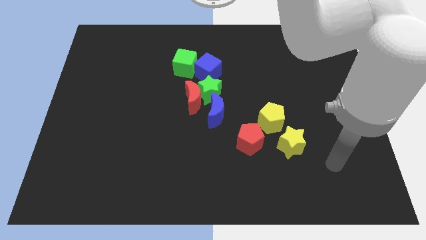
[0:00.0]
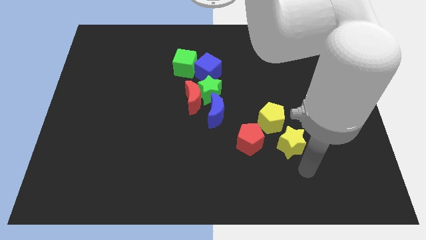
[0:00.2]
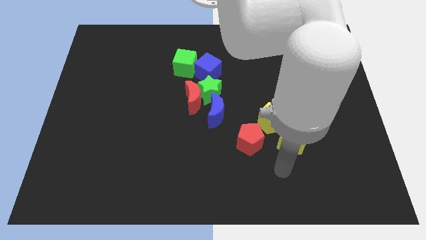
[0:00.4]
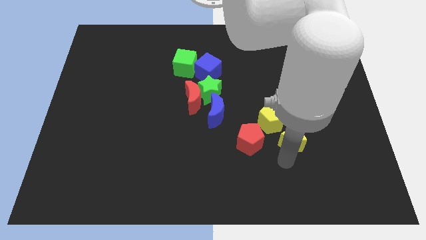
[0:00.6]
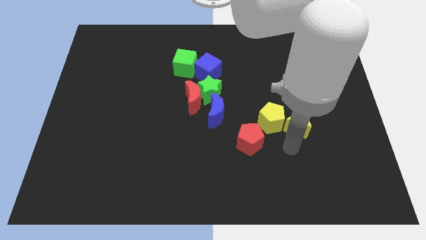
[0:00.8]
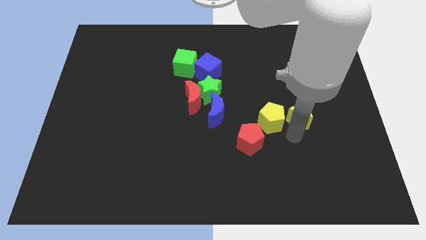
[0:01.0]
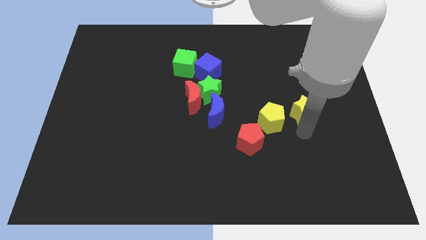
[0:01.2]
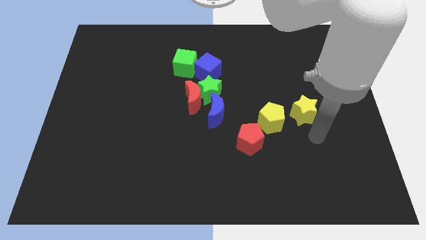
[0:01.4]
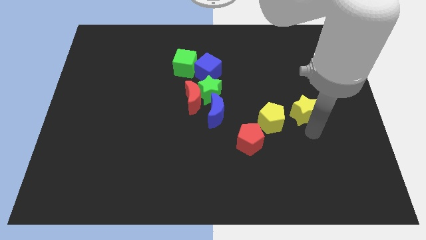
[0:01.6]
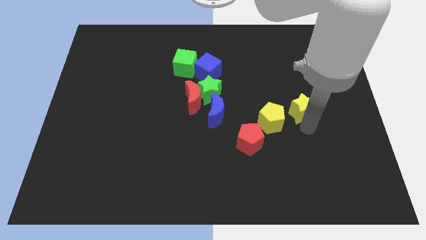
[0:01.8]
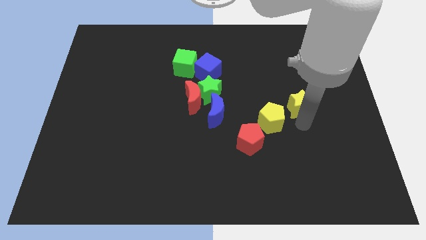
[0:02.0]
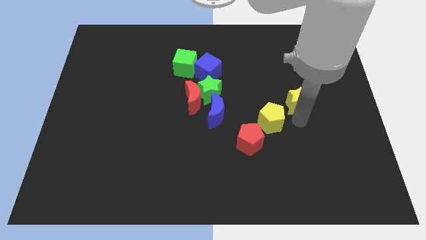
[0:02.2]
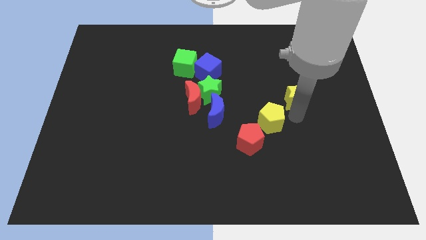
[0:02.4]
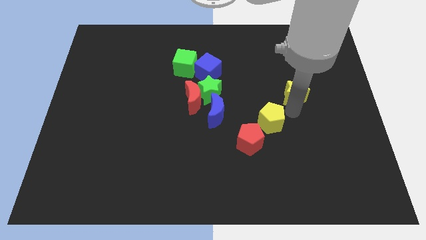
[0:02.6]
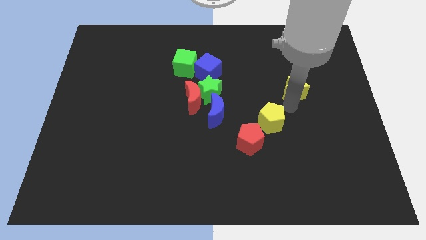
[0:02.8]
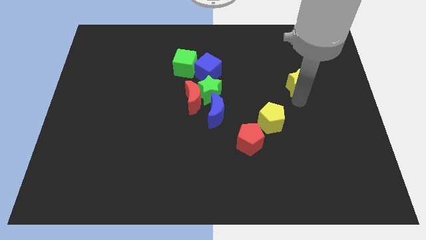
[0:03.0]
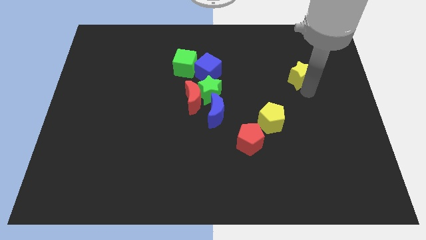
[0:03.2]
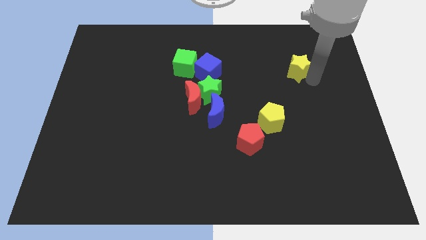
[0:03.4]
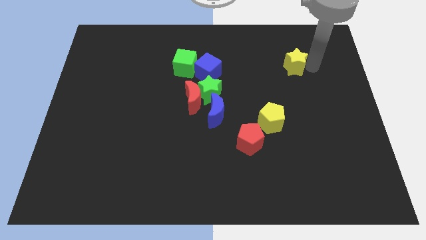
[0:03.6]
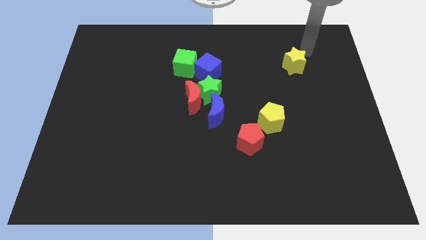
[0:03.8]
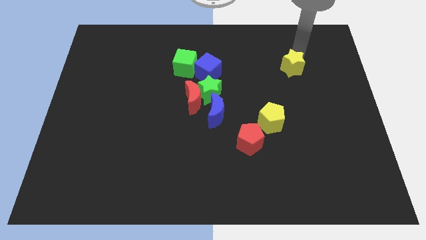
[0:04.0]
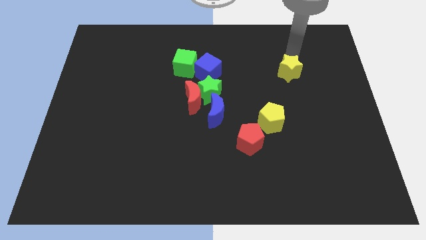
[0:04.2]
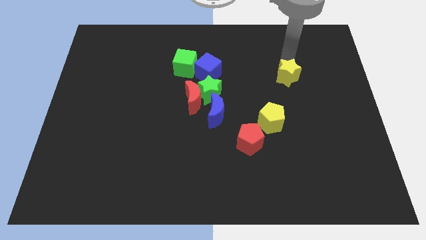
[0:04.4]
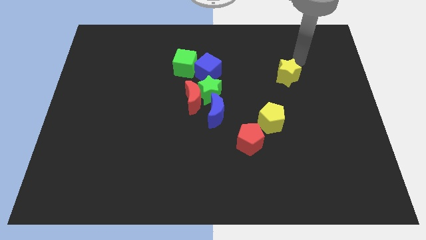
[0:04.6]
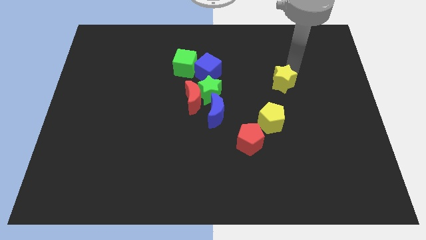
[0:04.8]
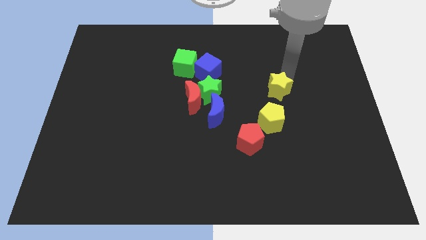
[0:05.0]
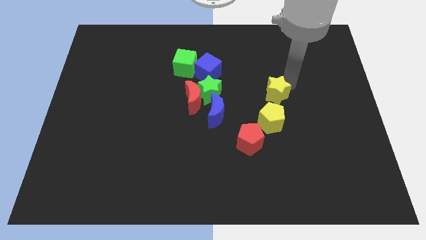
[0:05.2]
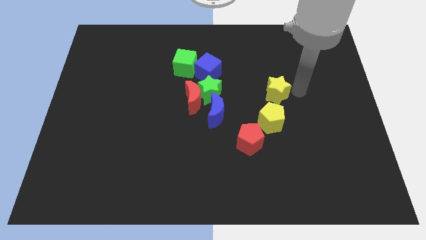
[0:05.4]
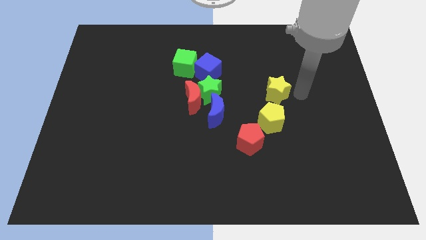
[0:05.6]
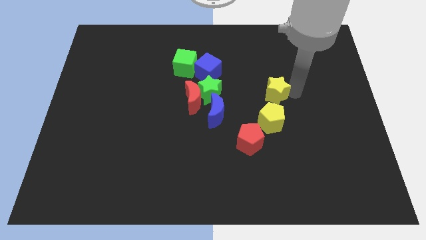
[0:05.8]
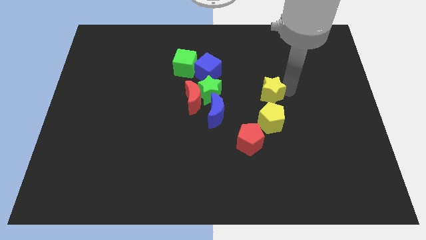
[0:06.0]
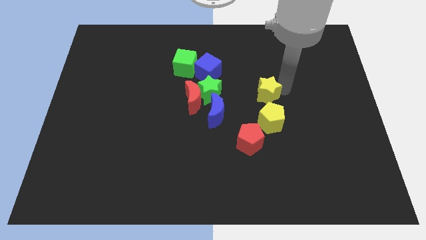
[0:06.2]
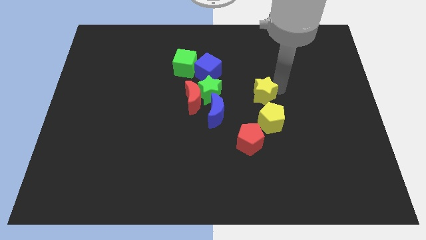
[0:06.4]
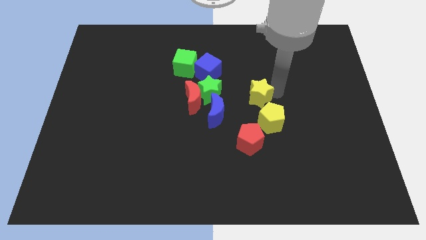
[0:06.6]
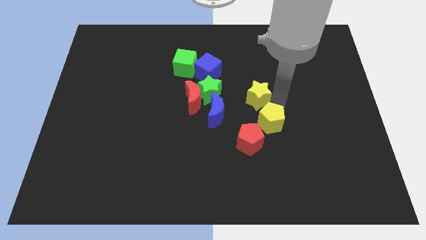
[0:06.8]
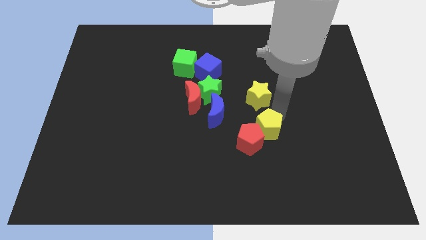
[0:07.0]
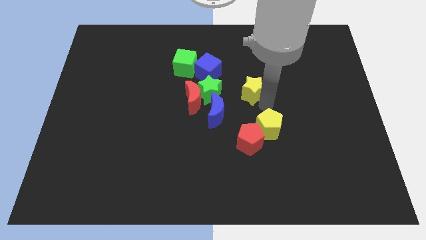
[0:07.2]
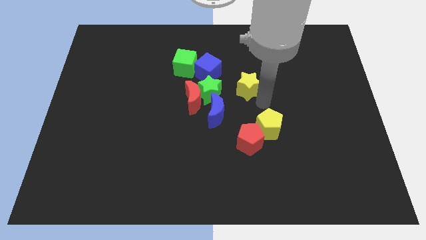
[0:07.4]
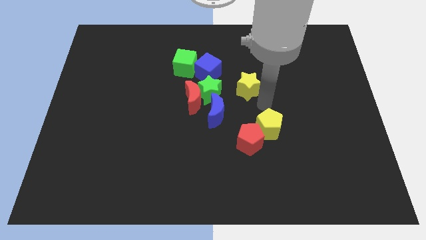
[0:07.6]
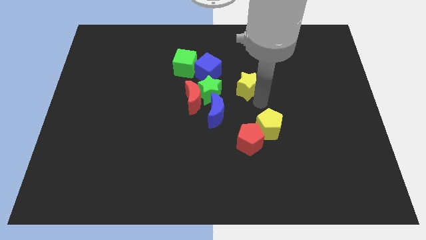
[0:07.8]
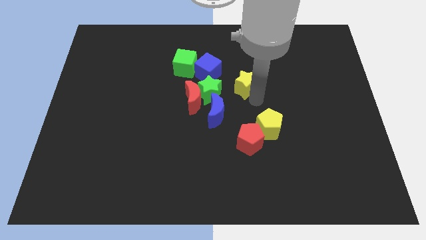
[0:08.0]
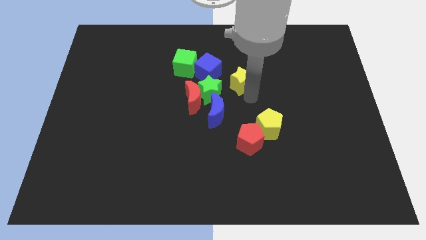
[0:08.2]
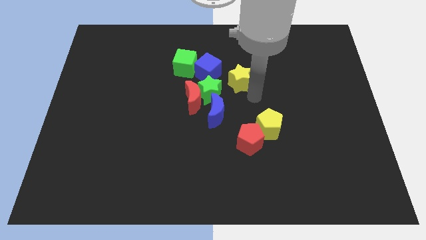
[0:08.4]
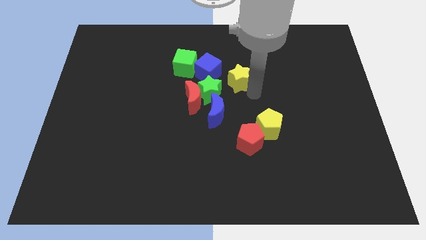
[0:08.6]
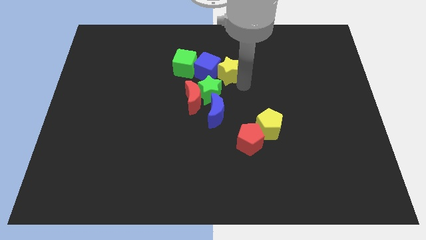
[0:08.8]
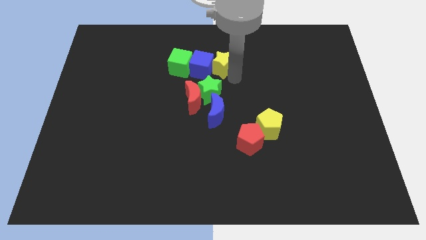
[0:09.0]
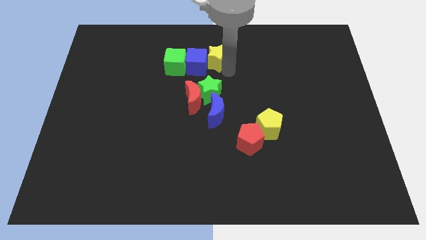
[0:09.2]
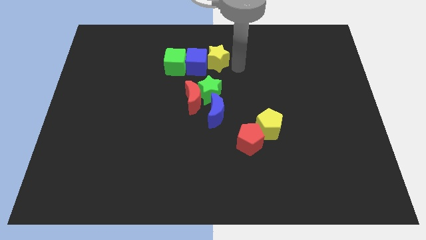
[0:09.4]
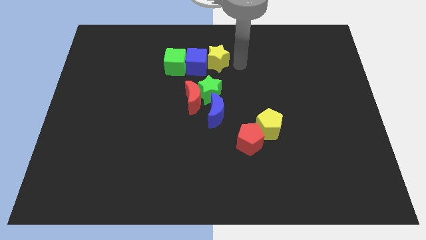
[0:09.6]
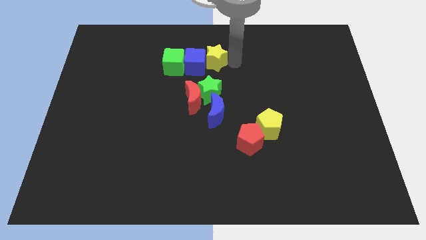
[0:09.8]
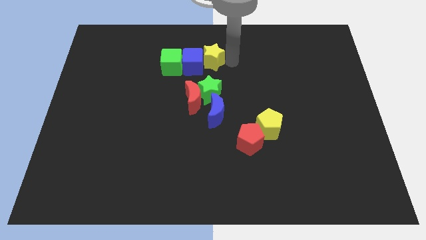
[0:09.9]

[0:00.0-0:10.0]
slide the yellow star above the red moon

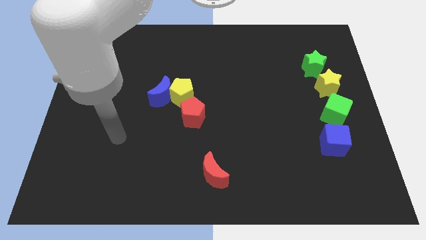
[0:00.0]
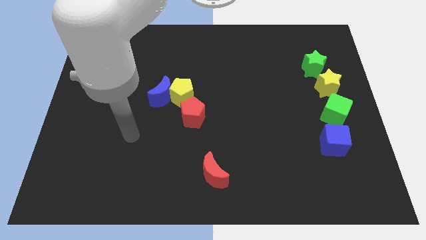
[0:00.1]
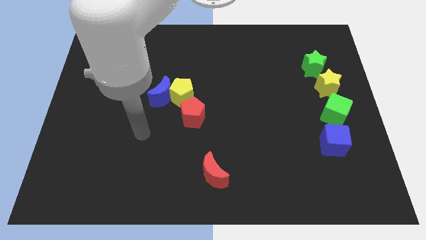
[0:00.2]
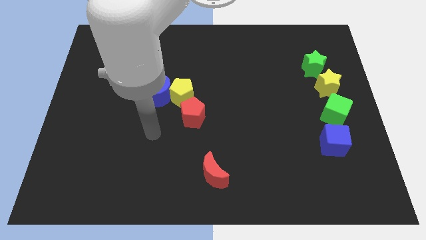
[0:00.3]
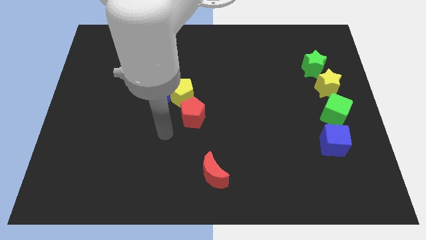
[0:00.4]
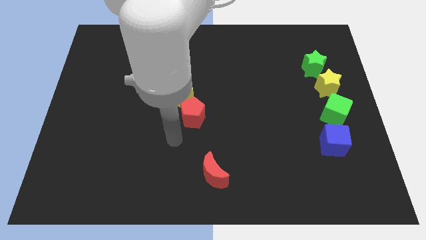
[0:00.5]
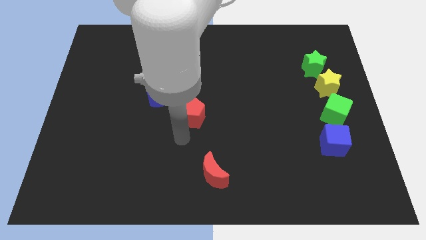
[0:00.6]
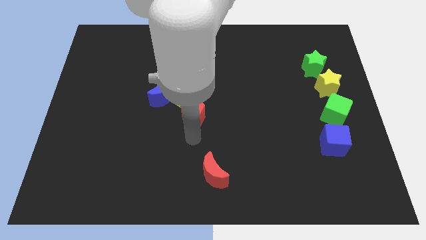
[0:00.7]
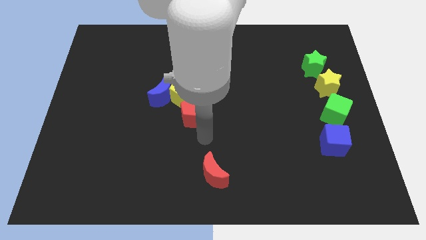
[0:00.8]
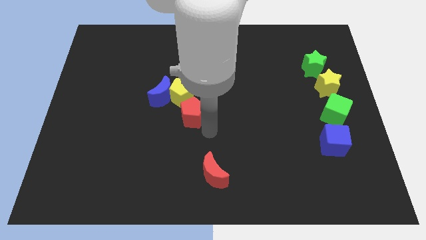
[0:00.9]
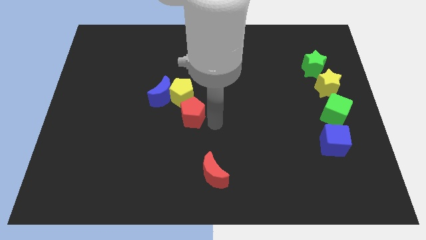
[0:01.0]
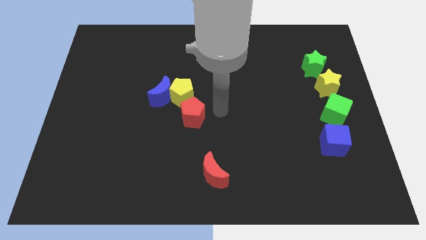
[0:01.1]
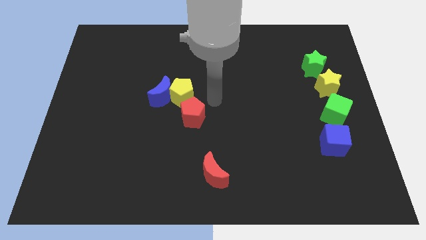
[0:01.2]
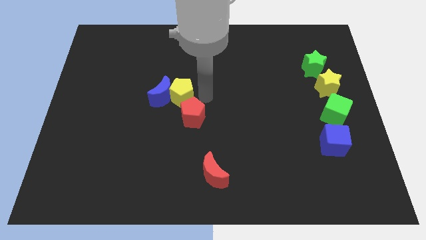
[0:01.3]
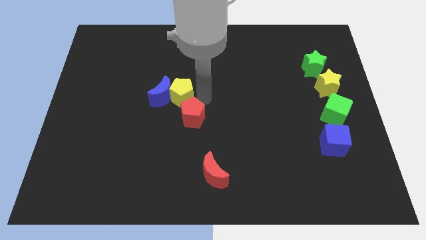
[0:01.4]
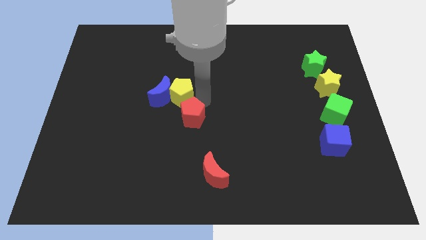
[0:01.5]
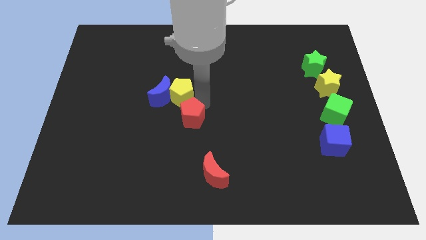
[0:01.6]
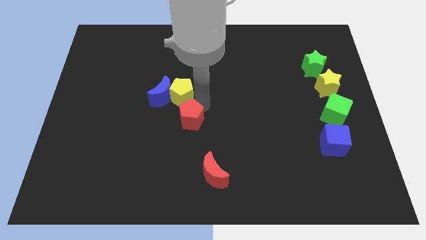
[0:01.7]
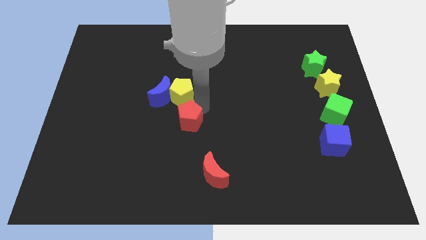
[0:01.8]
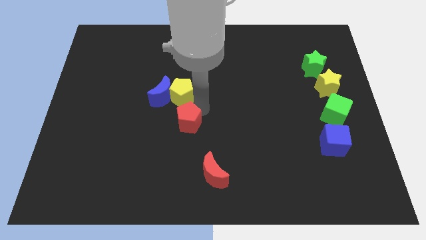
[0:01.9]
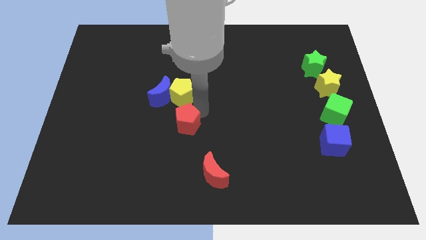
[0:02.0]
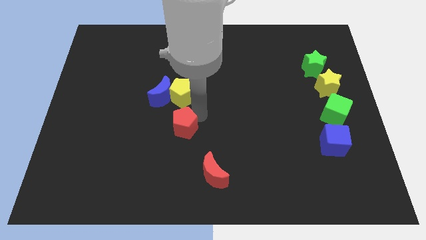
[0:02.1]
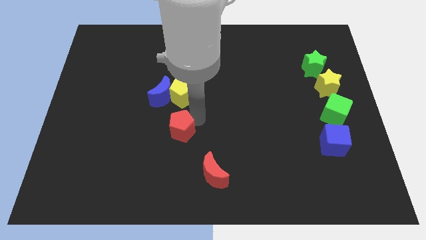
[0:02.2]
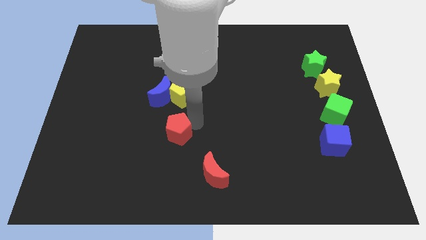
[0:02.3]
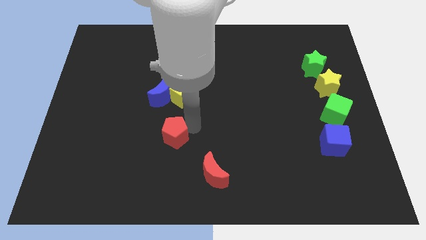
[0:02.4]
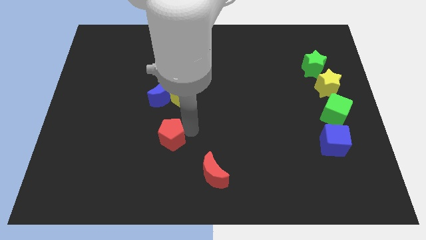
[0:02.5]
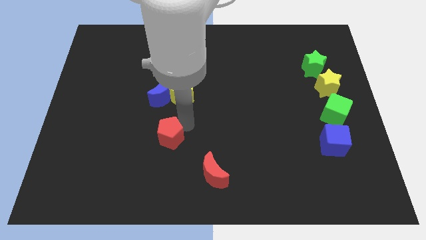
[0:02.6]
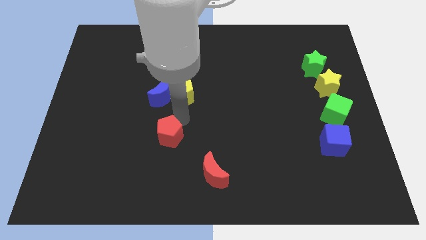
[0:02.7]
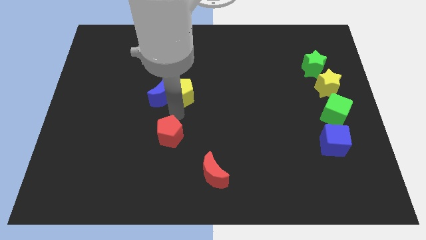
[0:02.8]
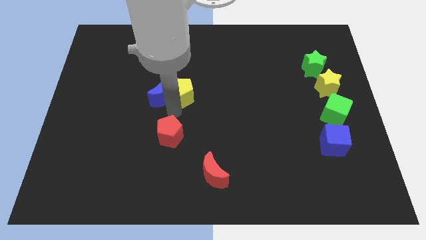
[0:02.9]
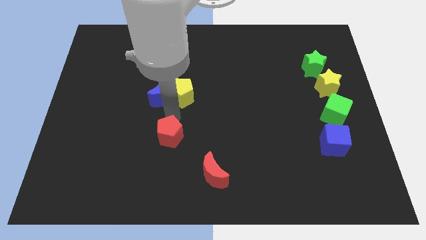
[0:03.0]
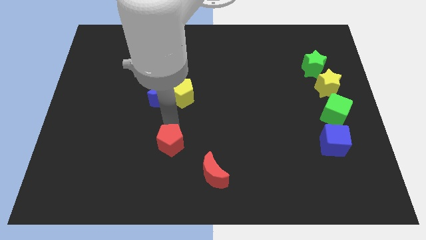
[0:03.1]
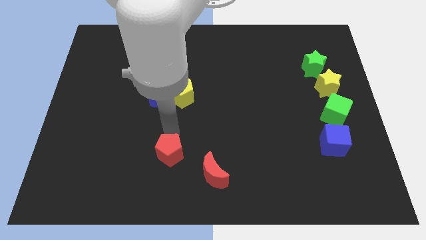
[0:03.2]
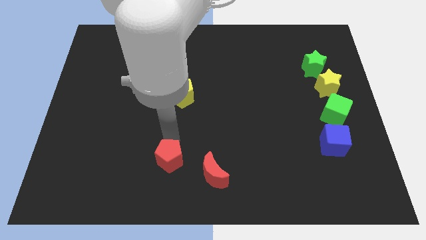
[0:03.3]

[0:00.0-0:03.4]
put the red pentagon left of the red moon
